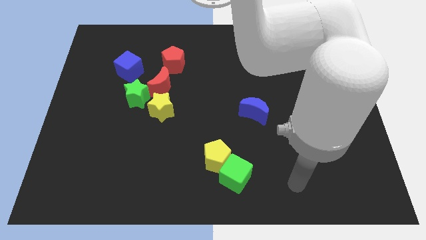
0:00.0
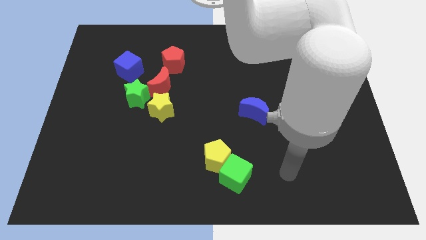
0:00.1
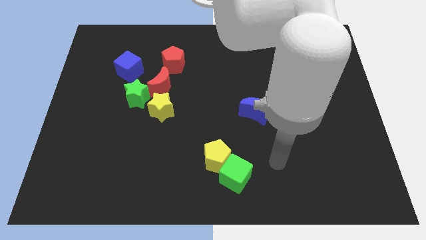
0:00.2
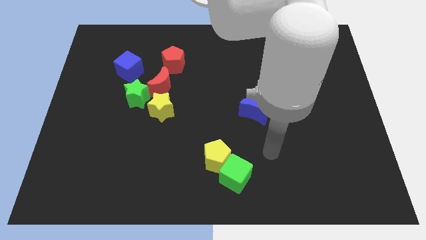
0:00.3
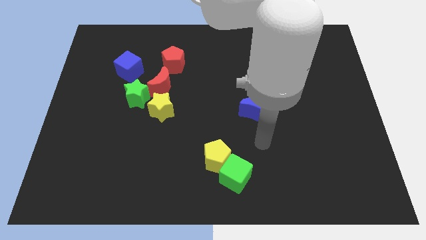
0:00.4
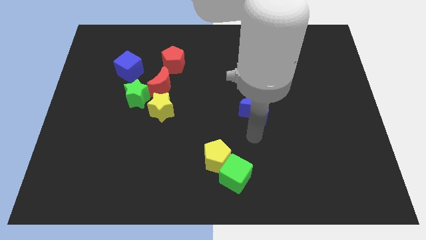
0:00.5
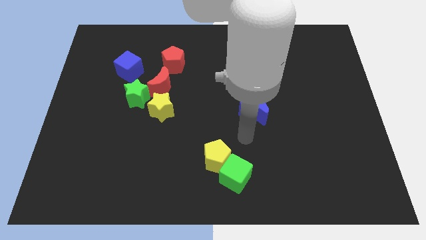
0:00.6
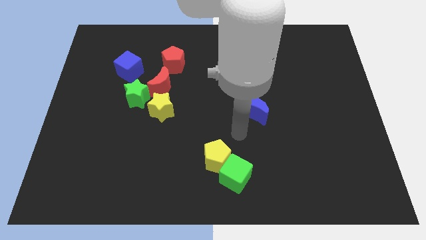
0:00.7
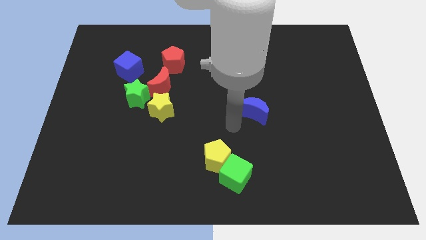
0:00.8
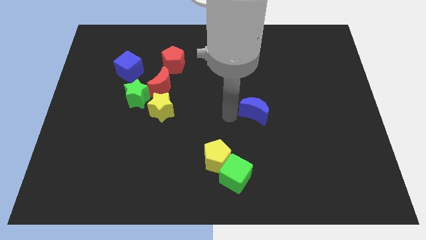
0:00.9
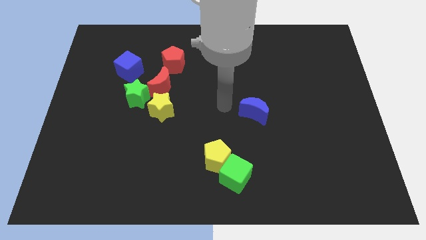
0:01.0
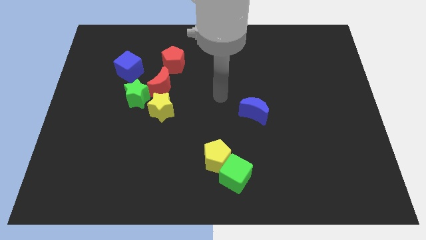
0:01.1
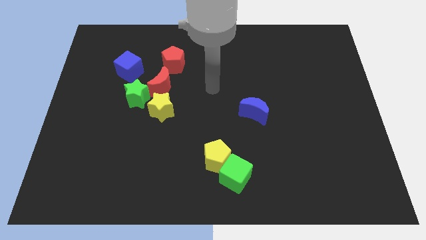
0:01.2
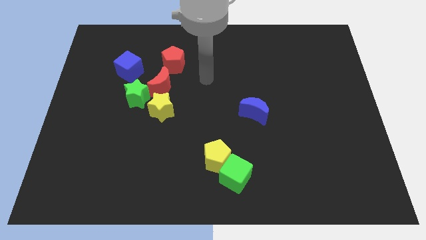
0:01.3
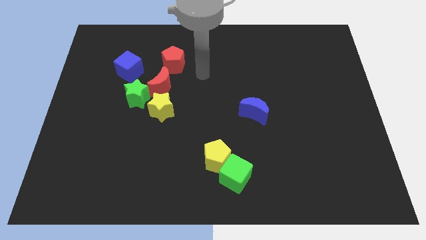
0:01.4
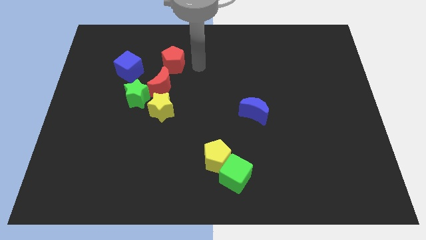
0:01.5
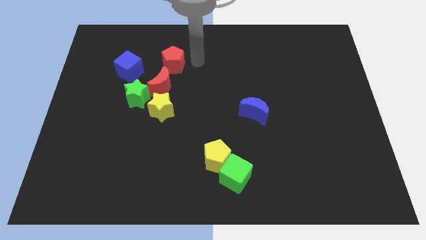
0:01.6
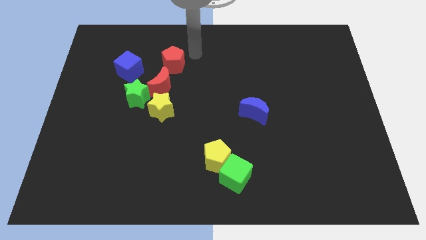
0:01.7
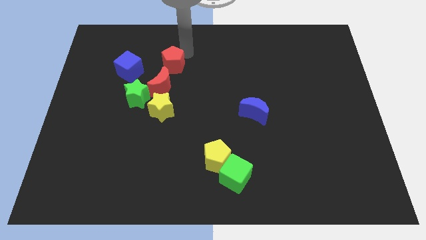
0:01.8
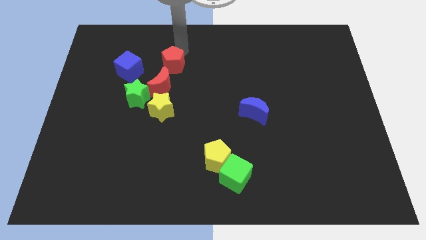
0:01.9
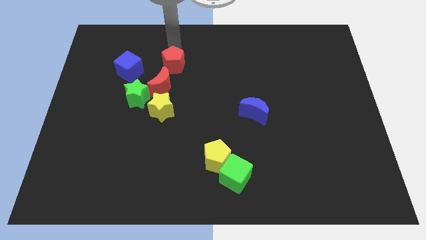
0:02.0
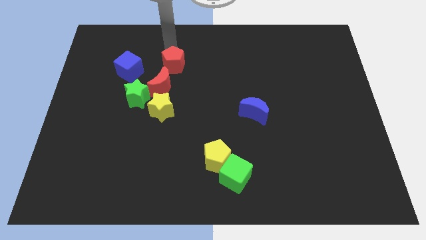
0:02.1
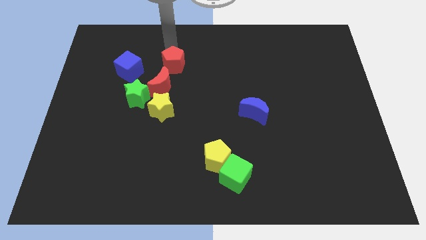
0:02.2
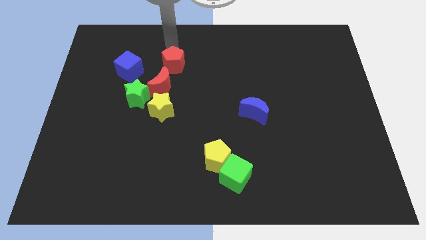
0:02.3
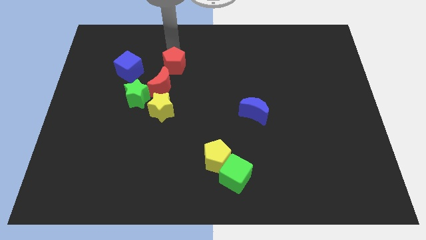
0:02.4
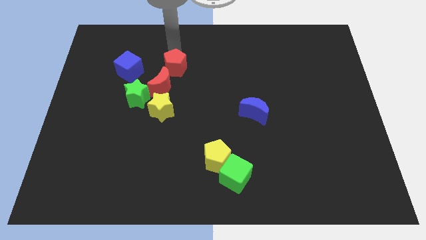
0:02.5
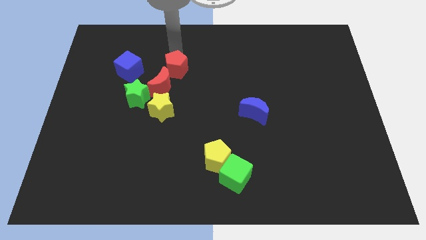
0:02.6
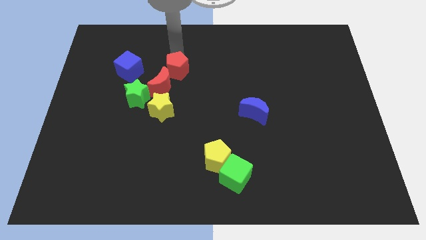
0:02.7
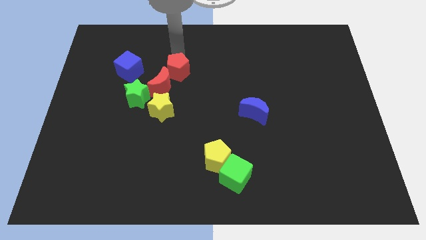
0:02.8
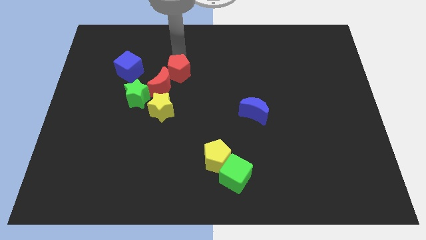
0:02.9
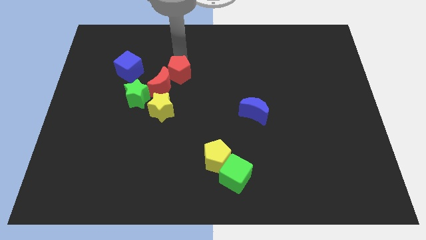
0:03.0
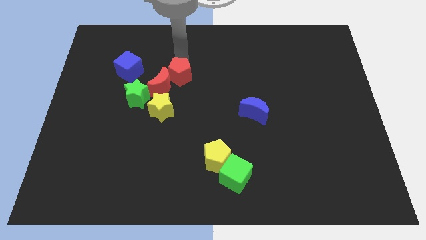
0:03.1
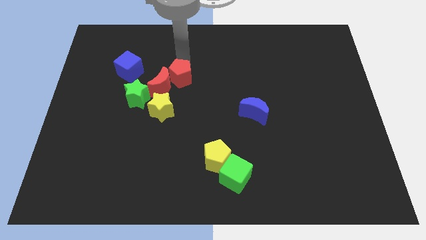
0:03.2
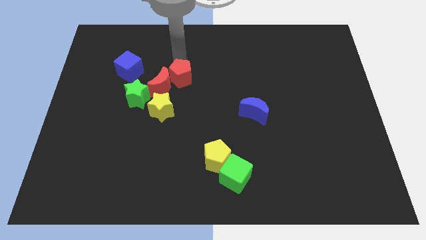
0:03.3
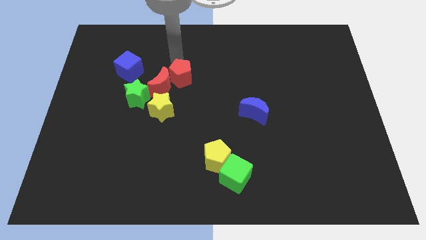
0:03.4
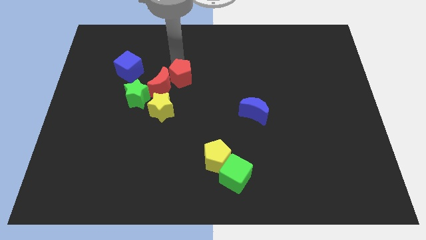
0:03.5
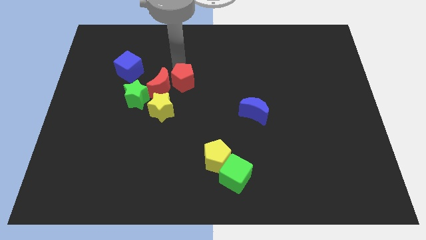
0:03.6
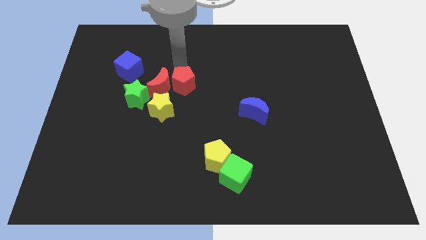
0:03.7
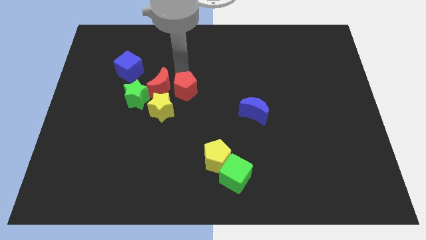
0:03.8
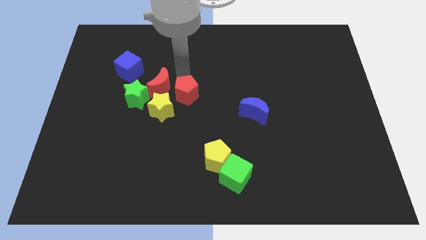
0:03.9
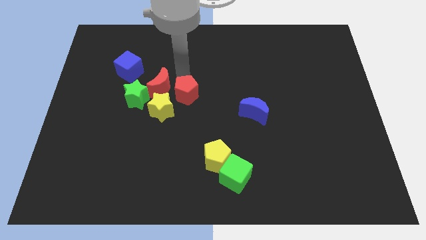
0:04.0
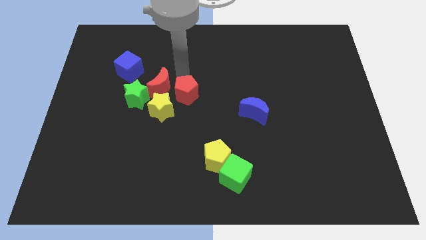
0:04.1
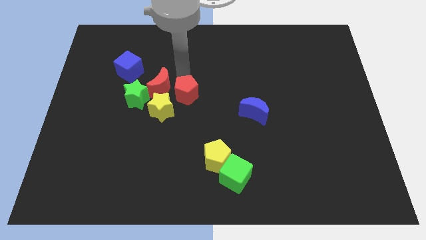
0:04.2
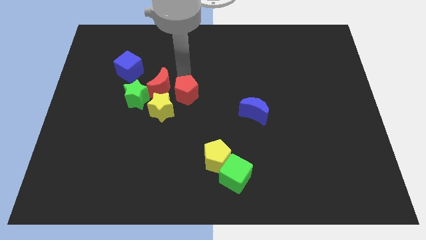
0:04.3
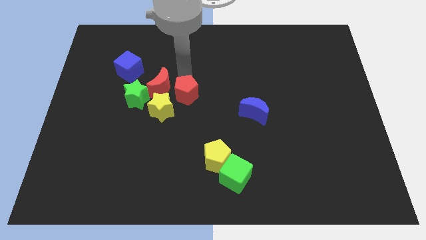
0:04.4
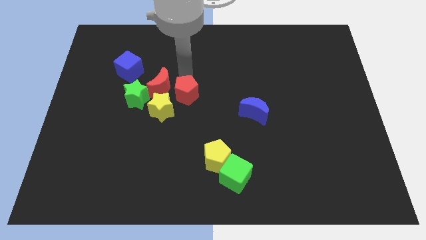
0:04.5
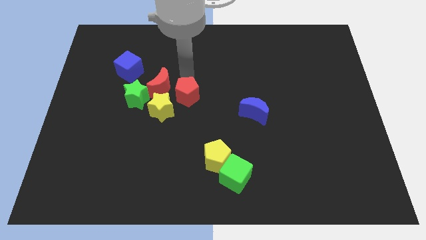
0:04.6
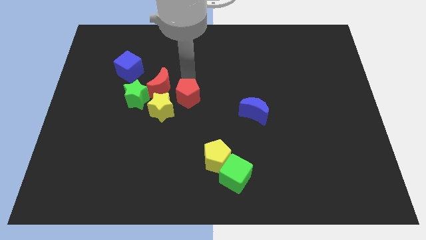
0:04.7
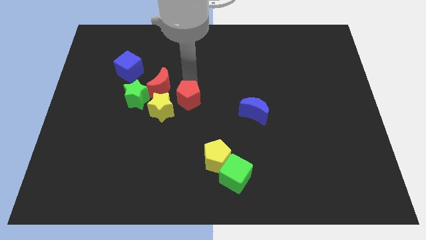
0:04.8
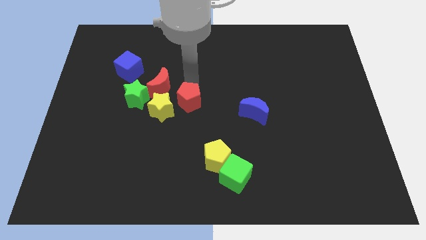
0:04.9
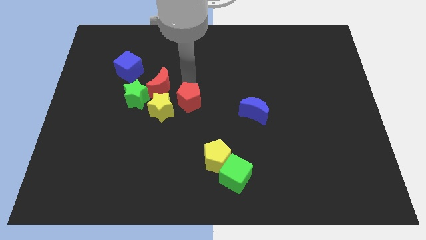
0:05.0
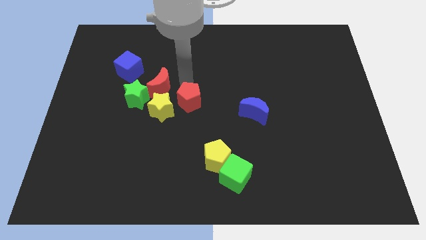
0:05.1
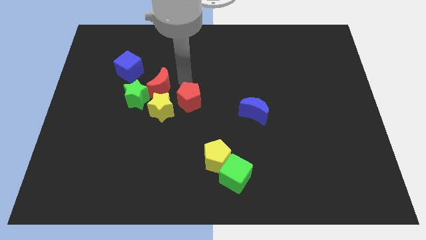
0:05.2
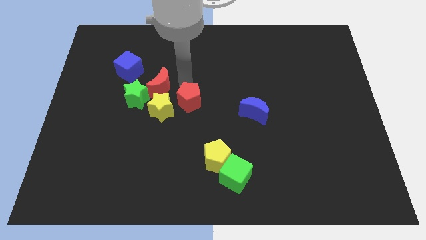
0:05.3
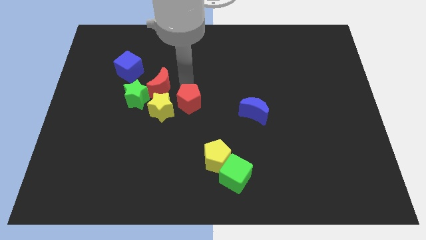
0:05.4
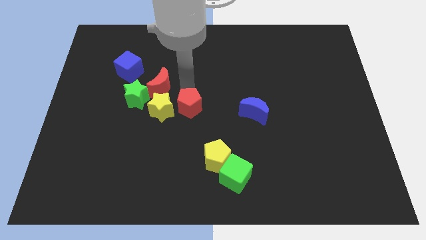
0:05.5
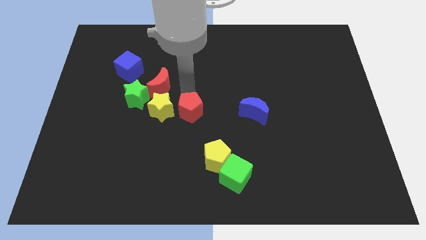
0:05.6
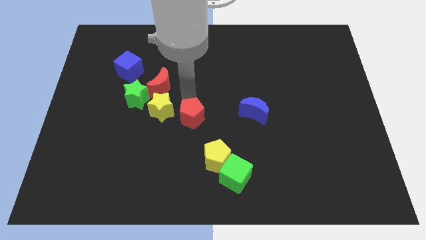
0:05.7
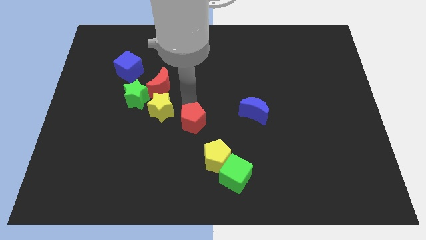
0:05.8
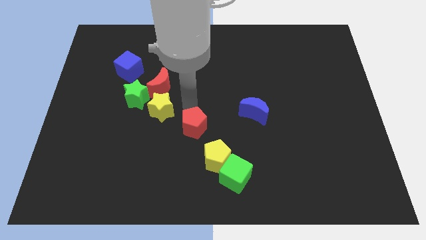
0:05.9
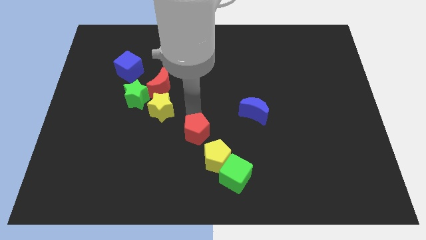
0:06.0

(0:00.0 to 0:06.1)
push the red pentagon down

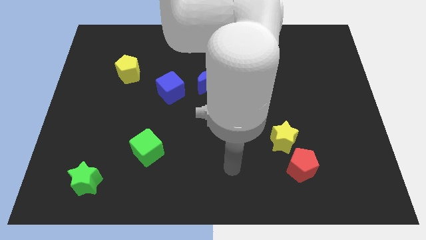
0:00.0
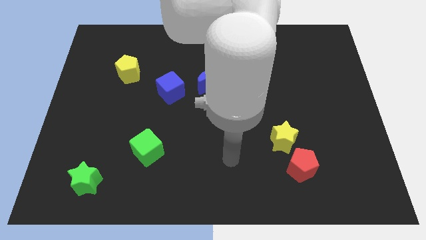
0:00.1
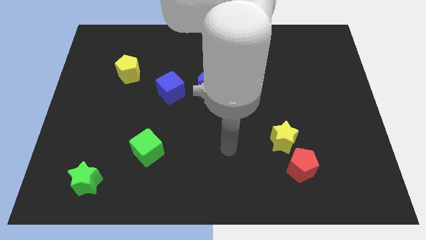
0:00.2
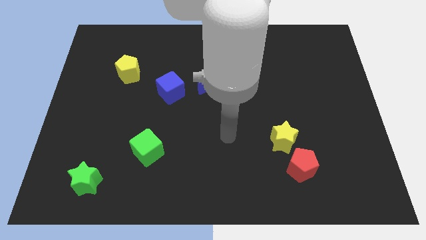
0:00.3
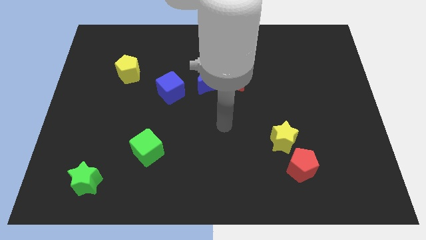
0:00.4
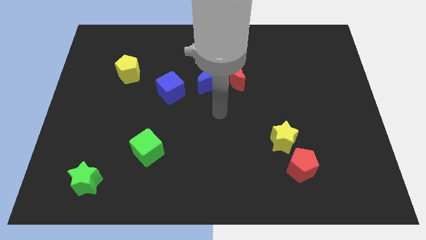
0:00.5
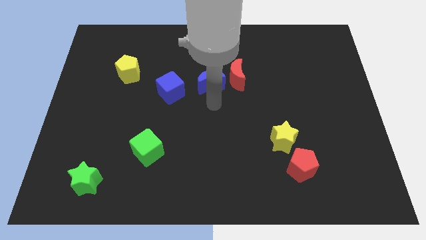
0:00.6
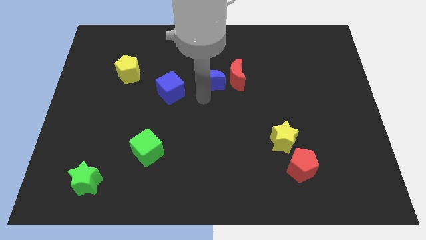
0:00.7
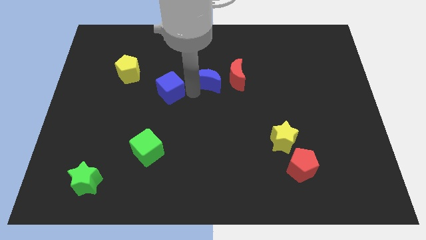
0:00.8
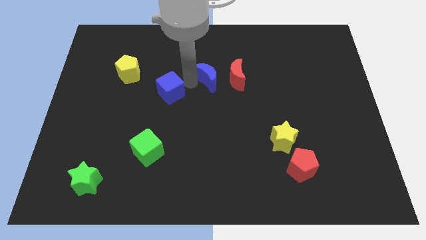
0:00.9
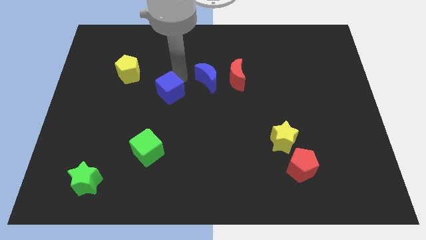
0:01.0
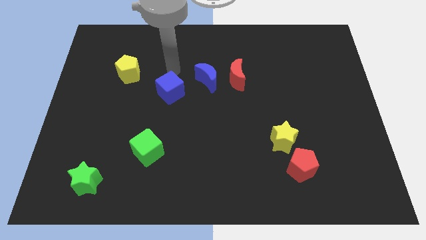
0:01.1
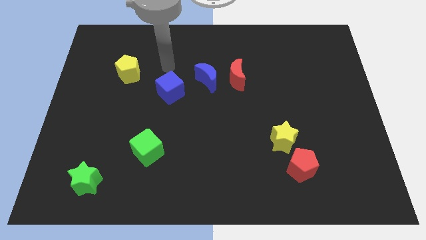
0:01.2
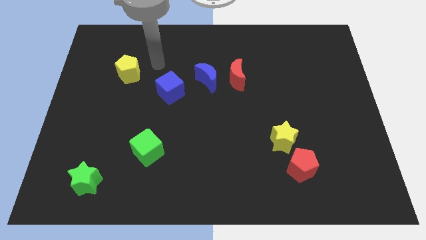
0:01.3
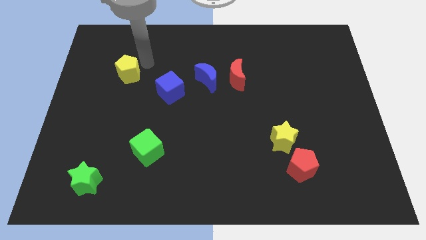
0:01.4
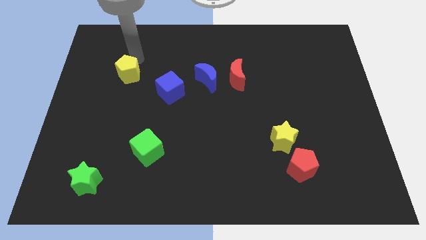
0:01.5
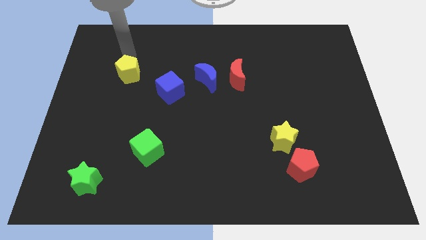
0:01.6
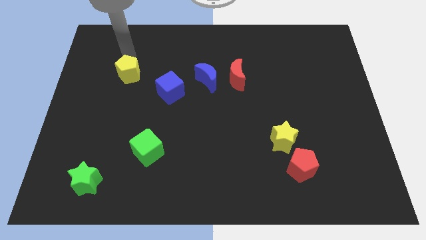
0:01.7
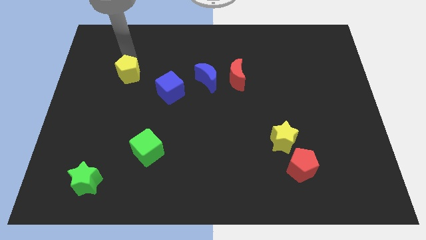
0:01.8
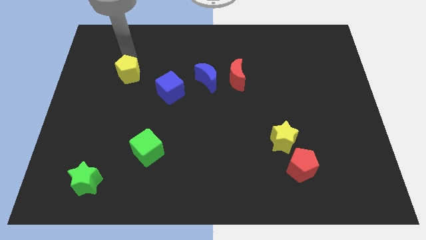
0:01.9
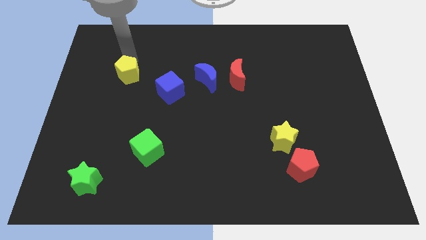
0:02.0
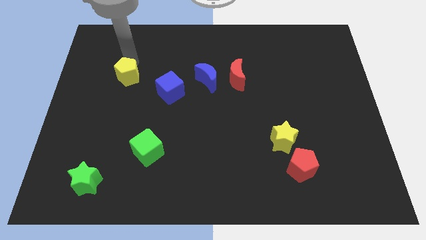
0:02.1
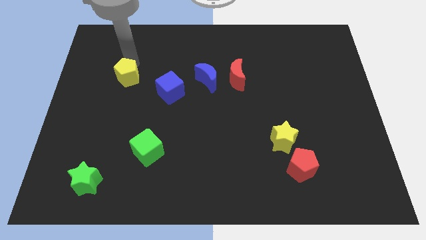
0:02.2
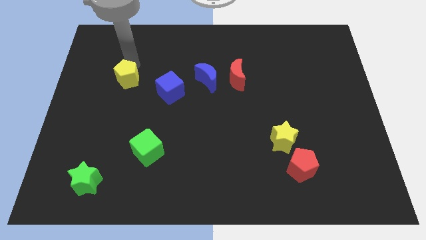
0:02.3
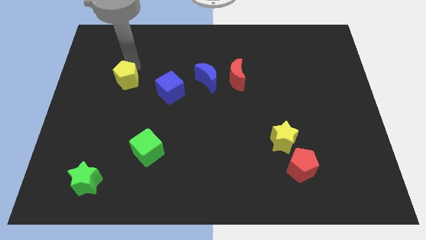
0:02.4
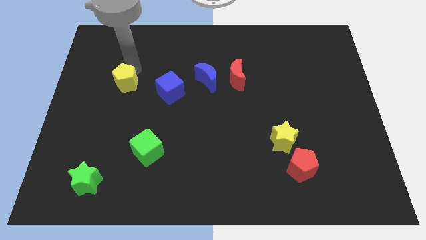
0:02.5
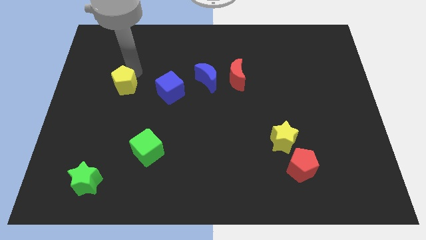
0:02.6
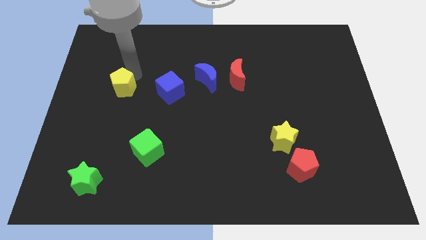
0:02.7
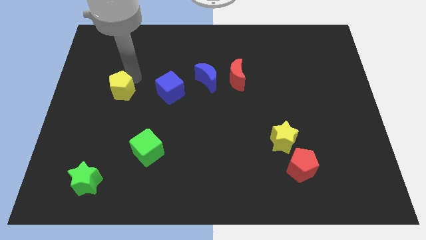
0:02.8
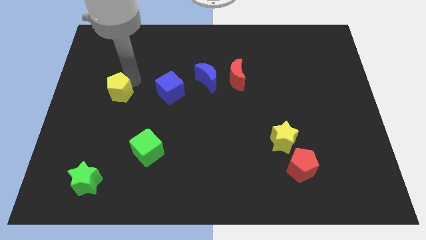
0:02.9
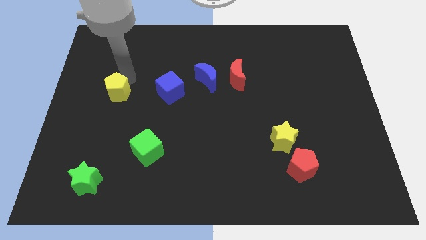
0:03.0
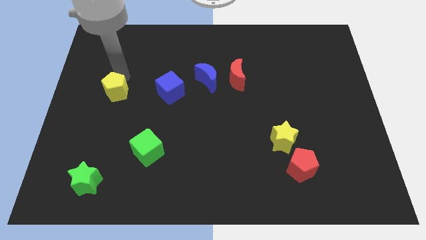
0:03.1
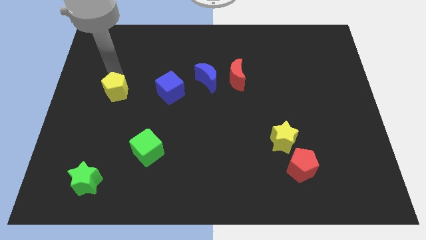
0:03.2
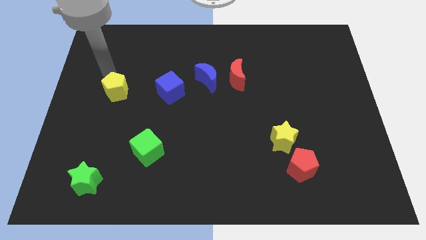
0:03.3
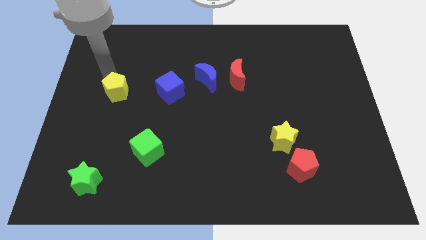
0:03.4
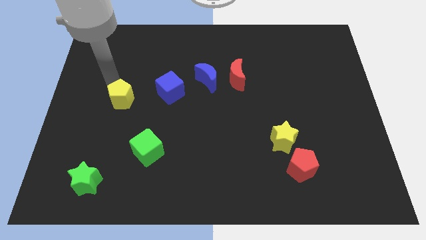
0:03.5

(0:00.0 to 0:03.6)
push the yellow pentagon down a little bit
